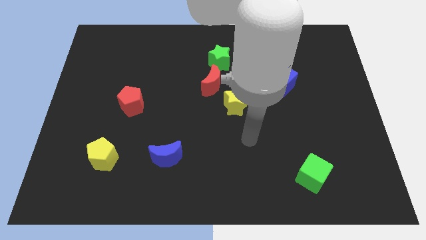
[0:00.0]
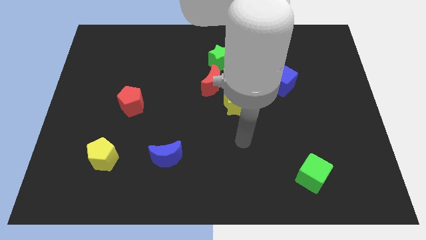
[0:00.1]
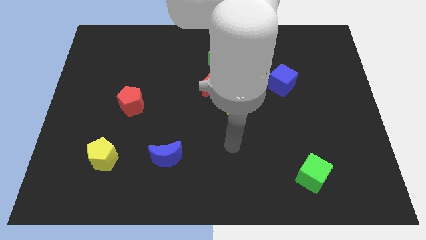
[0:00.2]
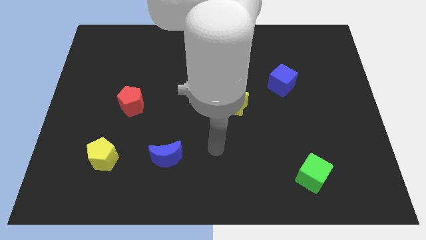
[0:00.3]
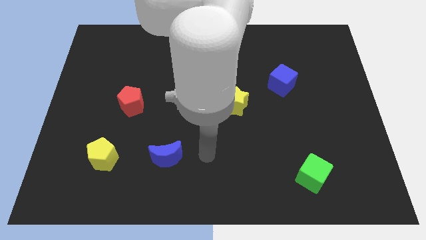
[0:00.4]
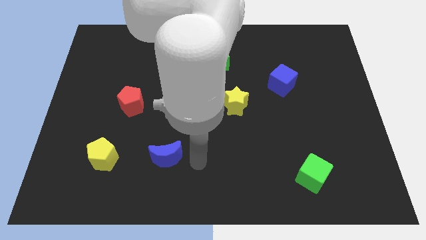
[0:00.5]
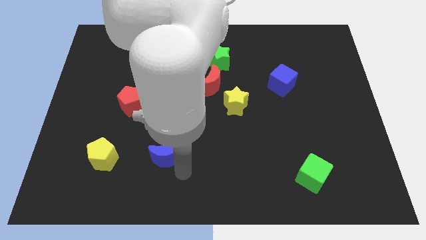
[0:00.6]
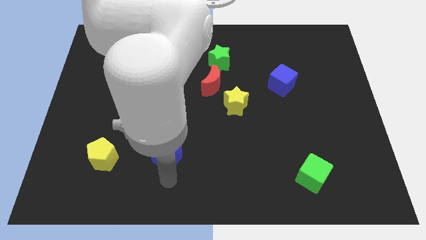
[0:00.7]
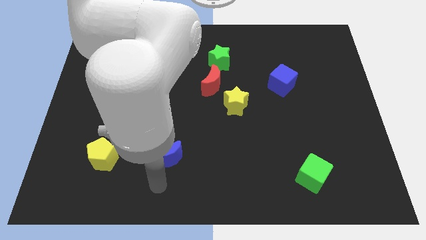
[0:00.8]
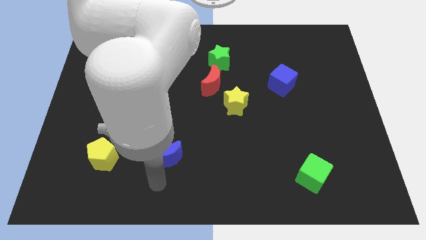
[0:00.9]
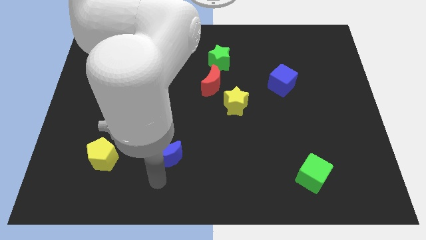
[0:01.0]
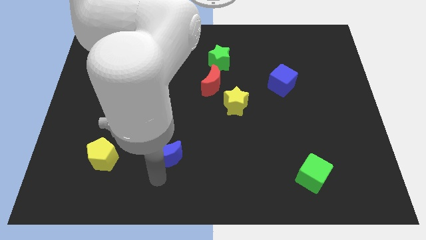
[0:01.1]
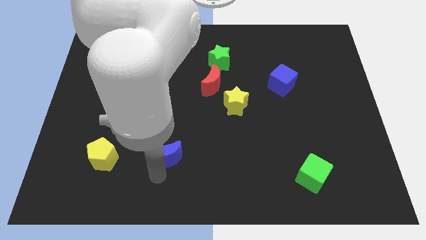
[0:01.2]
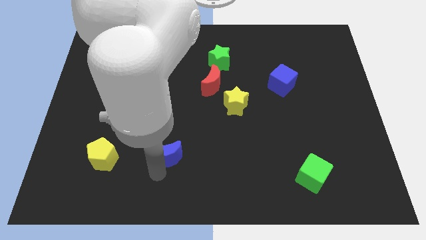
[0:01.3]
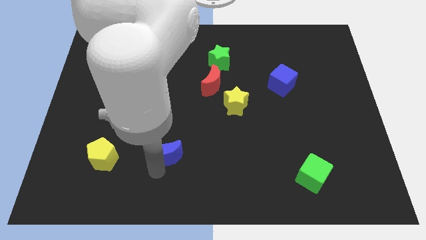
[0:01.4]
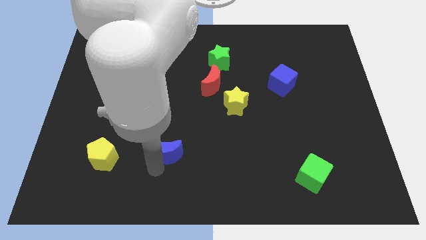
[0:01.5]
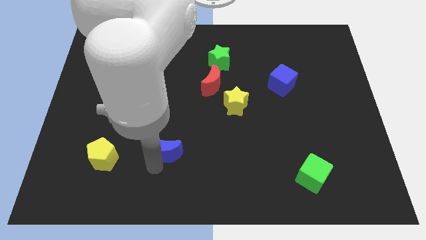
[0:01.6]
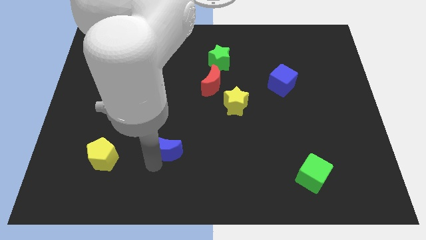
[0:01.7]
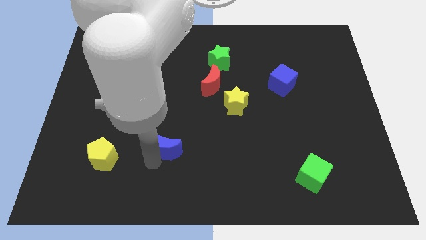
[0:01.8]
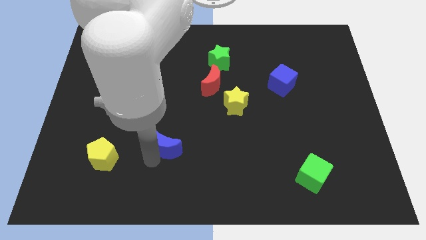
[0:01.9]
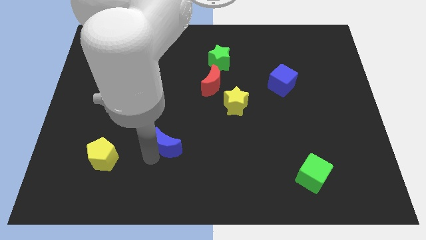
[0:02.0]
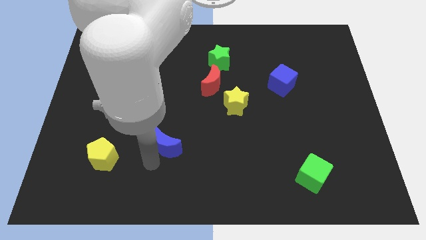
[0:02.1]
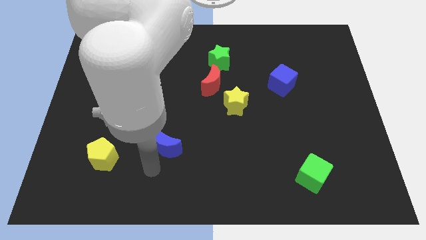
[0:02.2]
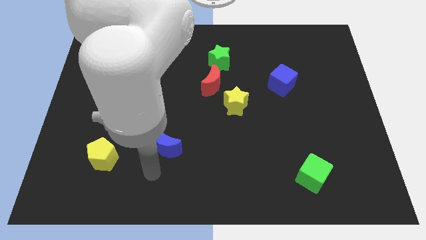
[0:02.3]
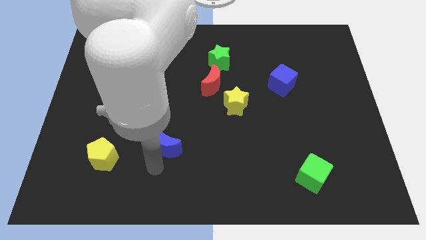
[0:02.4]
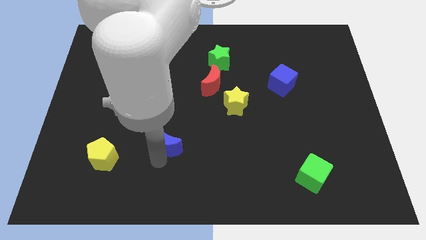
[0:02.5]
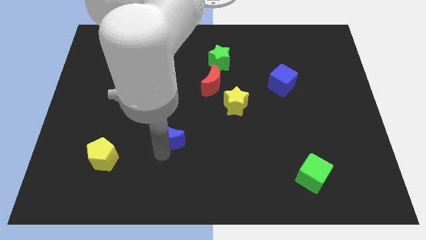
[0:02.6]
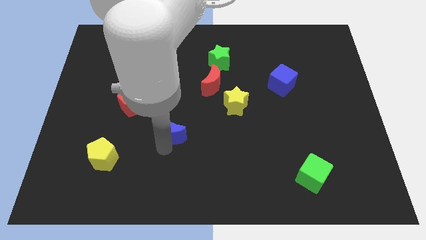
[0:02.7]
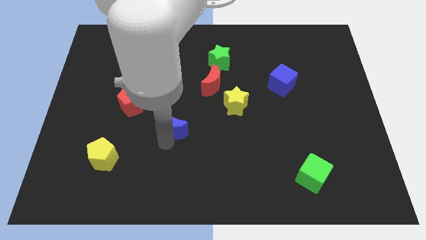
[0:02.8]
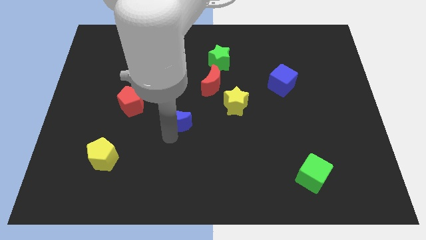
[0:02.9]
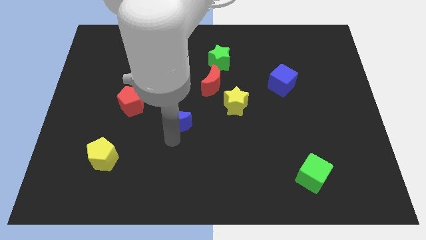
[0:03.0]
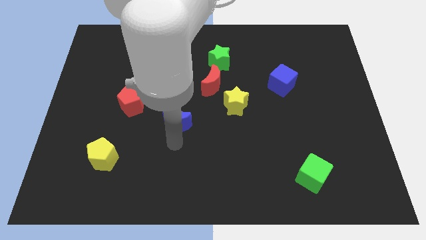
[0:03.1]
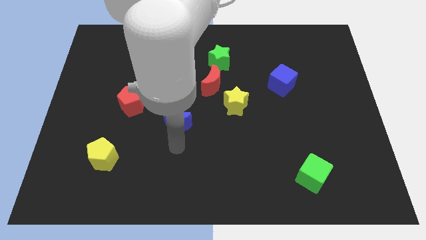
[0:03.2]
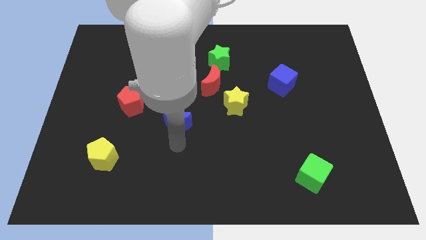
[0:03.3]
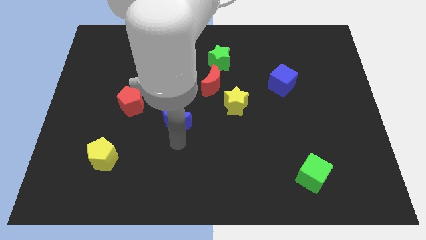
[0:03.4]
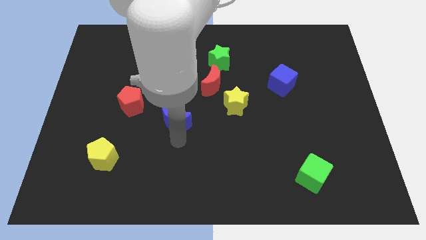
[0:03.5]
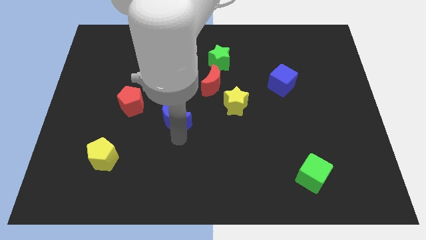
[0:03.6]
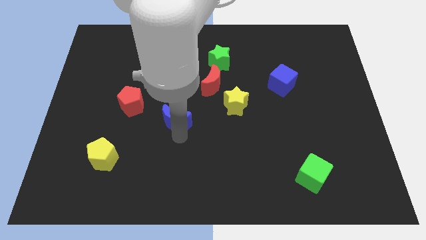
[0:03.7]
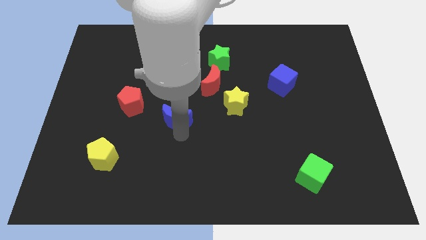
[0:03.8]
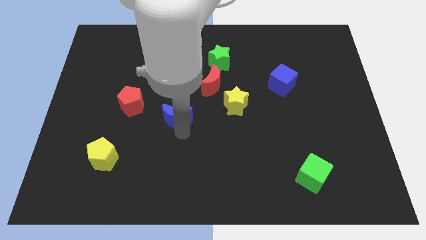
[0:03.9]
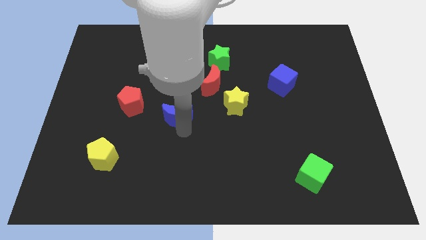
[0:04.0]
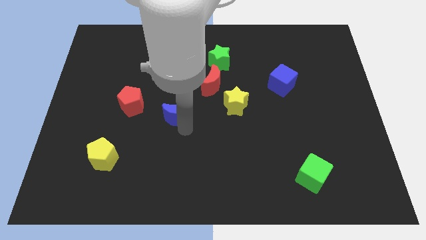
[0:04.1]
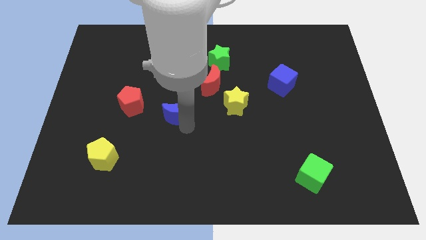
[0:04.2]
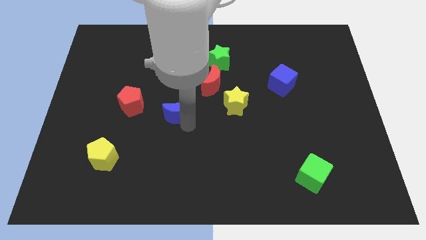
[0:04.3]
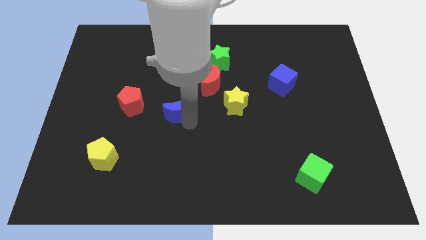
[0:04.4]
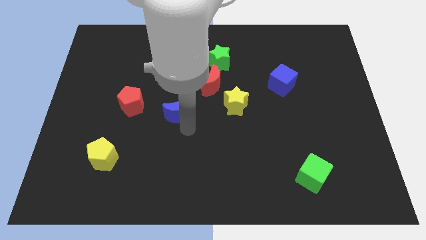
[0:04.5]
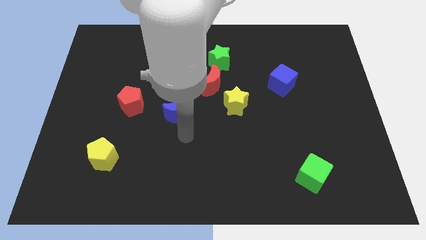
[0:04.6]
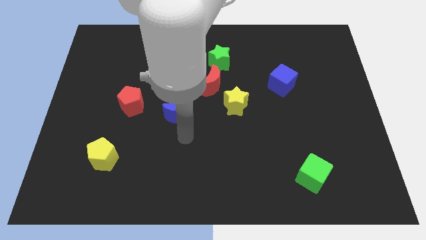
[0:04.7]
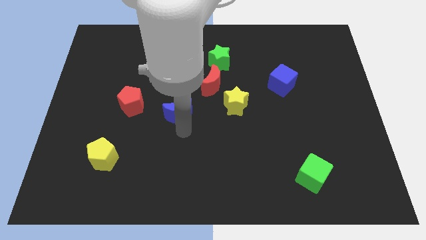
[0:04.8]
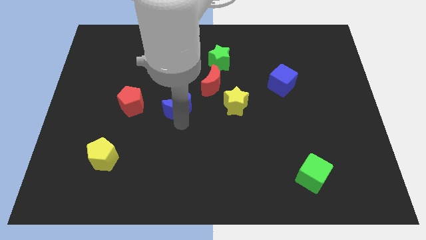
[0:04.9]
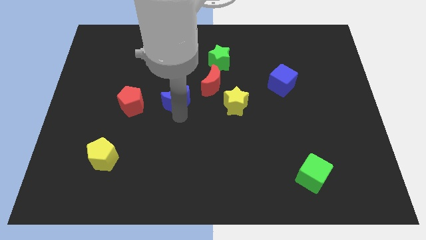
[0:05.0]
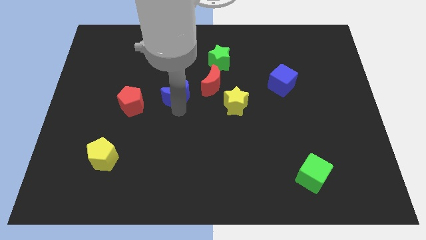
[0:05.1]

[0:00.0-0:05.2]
move the blue moon to the left side of the red moon

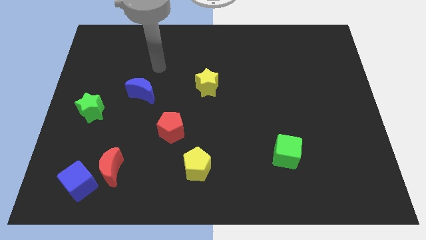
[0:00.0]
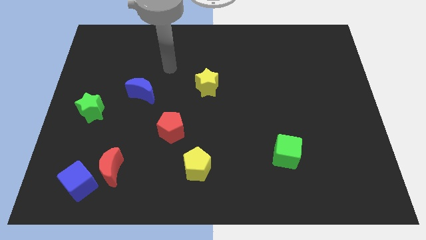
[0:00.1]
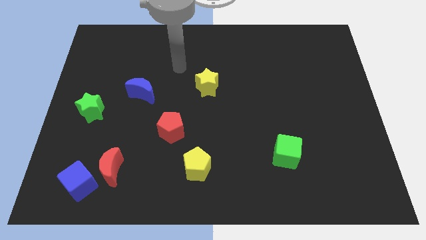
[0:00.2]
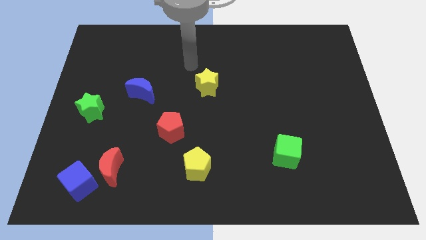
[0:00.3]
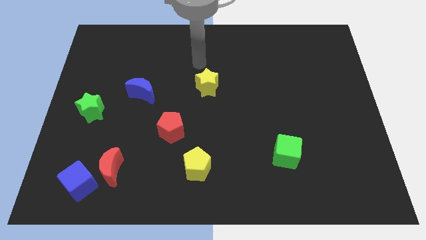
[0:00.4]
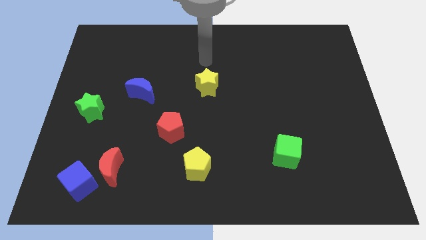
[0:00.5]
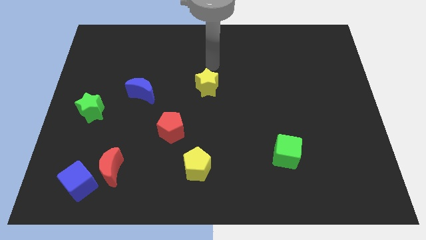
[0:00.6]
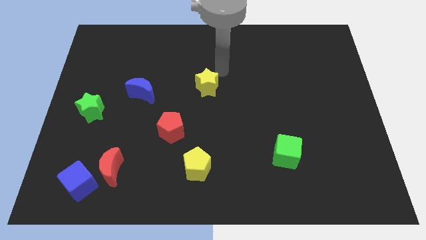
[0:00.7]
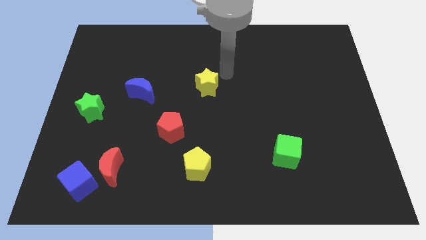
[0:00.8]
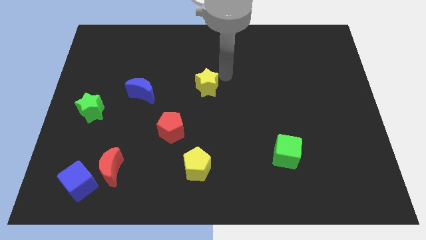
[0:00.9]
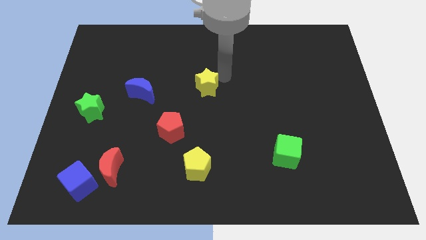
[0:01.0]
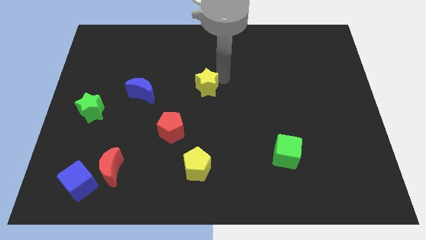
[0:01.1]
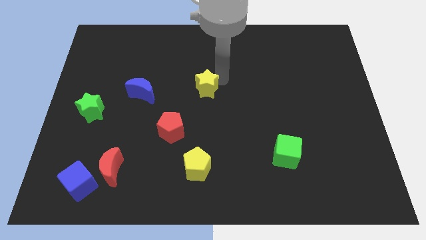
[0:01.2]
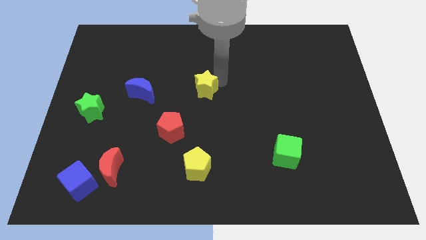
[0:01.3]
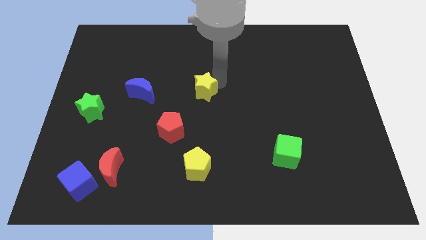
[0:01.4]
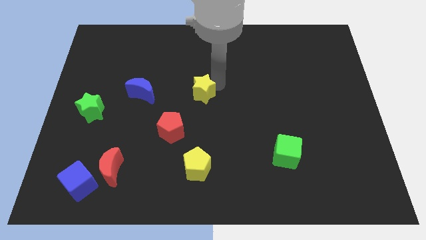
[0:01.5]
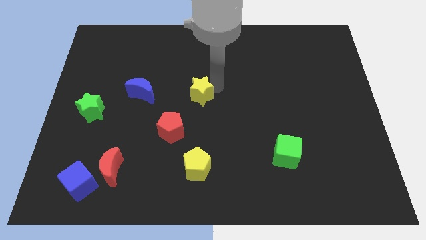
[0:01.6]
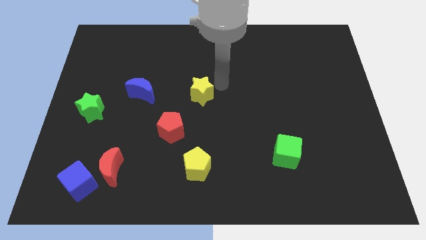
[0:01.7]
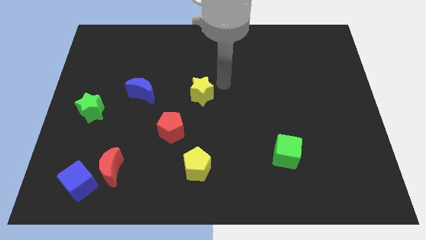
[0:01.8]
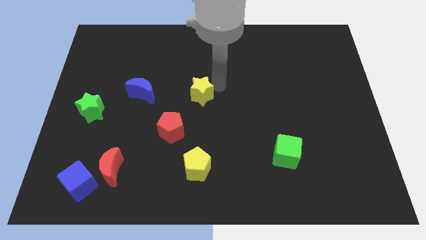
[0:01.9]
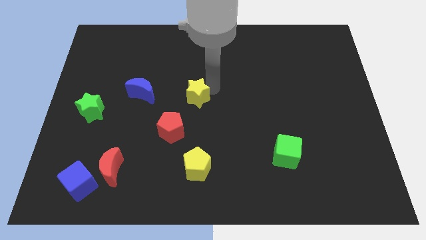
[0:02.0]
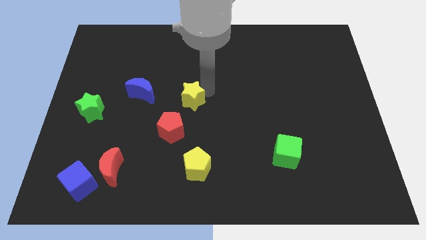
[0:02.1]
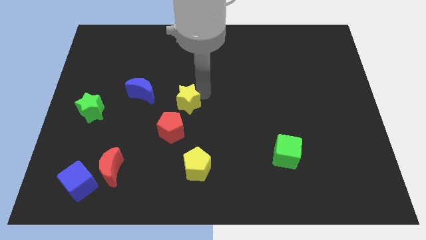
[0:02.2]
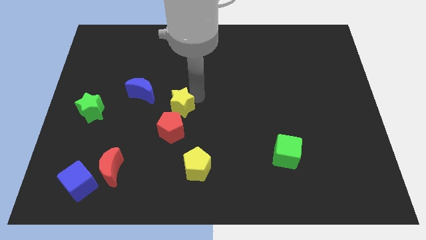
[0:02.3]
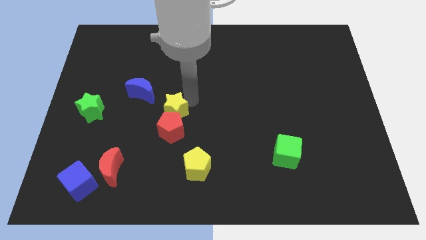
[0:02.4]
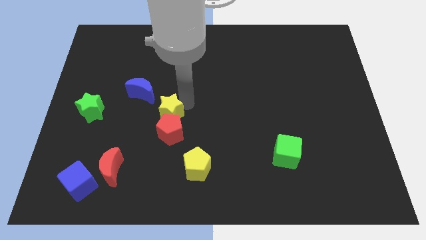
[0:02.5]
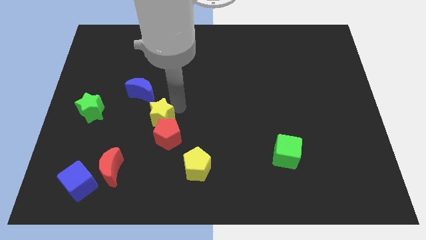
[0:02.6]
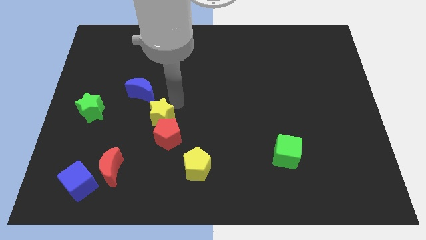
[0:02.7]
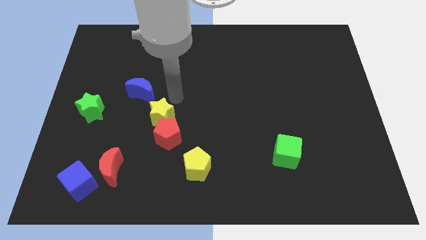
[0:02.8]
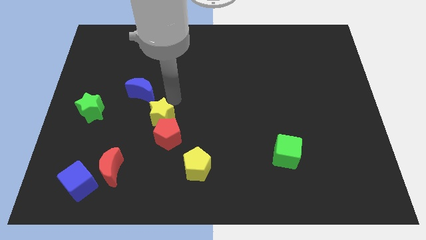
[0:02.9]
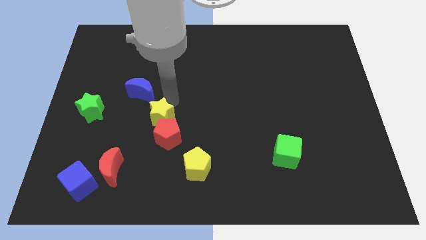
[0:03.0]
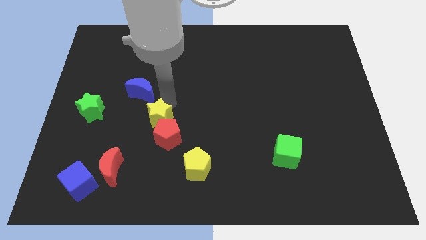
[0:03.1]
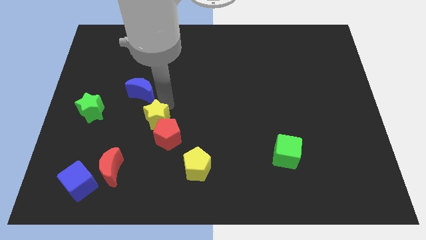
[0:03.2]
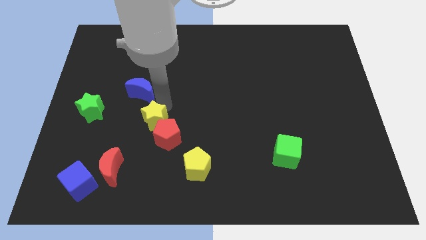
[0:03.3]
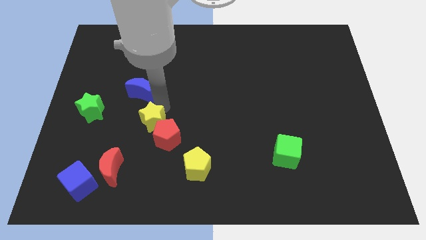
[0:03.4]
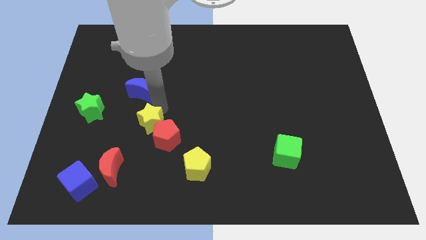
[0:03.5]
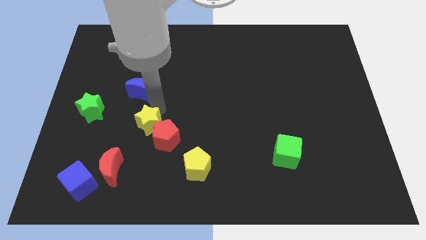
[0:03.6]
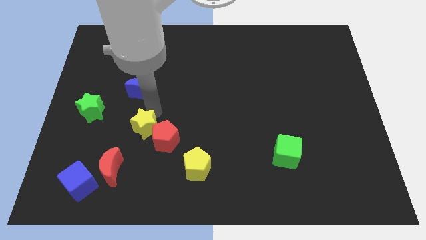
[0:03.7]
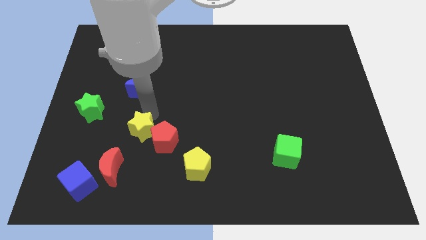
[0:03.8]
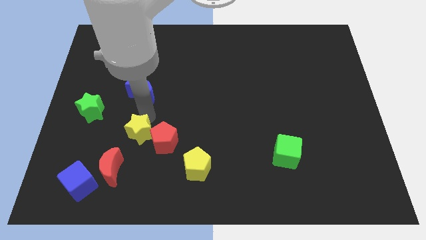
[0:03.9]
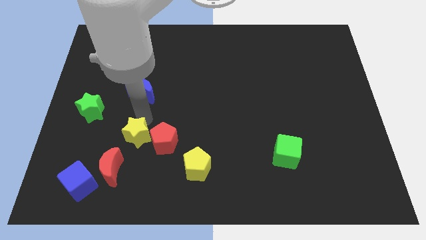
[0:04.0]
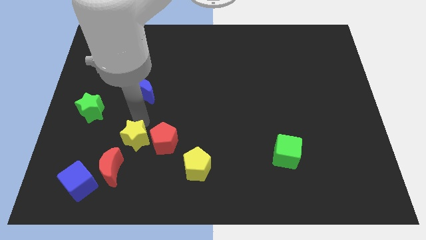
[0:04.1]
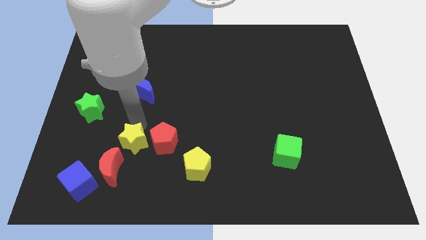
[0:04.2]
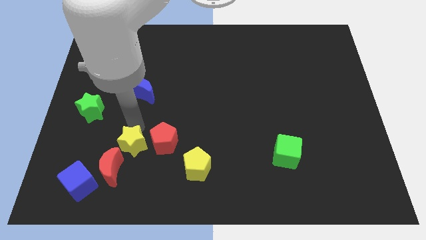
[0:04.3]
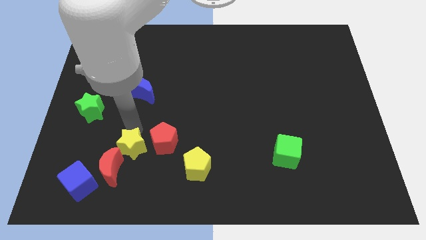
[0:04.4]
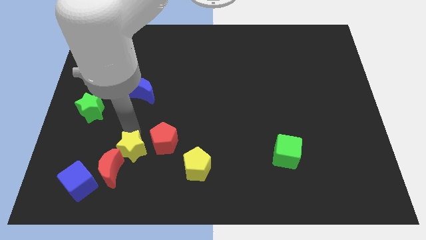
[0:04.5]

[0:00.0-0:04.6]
push the yellow star left of the yellow pentagon
